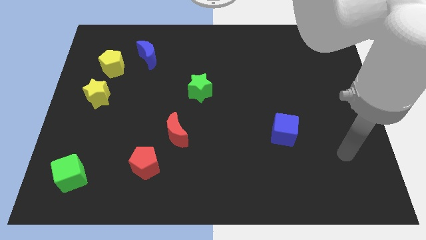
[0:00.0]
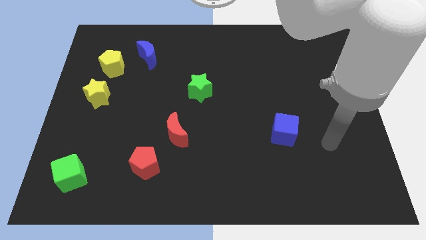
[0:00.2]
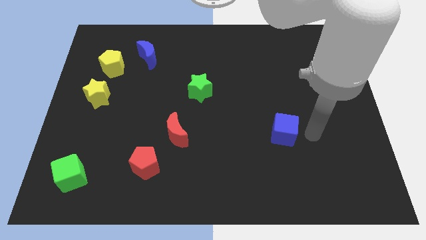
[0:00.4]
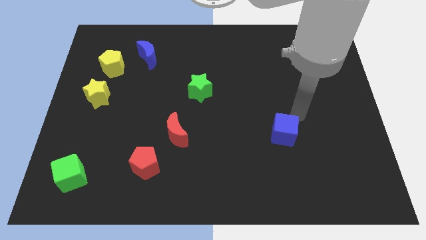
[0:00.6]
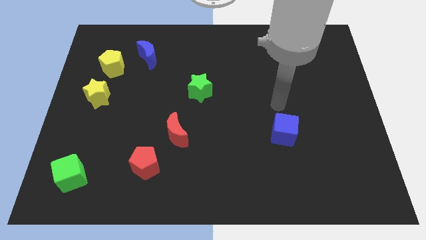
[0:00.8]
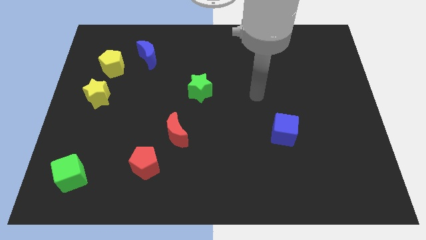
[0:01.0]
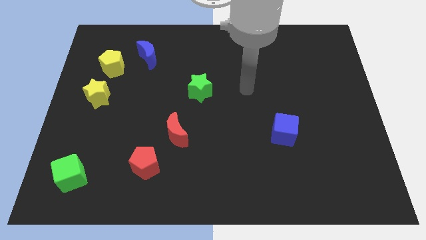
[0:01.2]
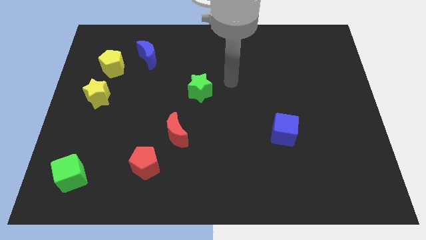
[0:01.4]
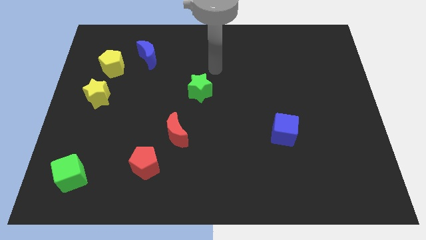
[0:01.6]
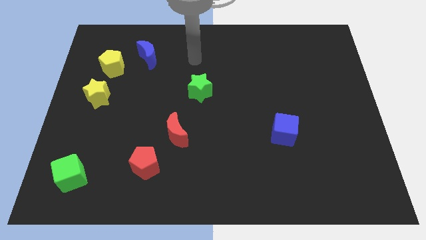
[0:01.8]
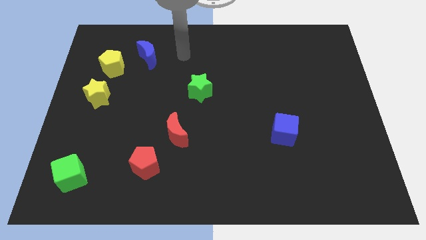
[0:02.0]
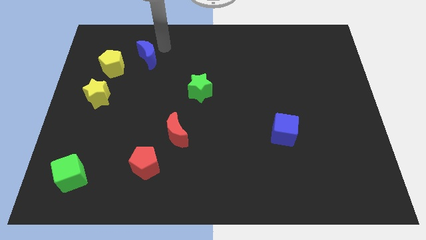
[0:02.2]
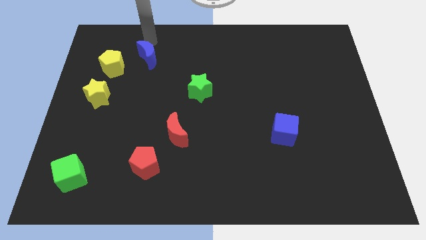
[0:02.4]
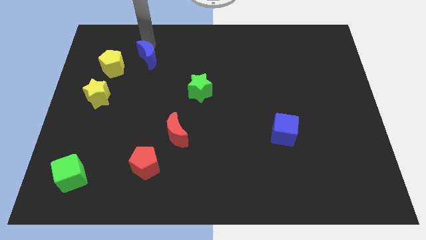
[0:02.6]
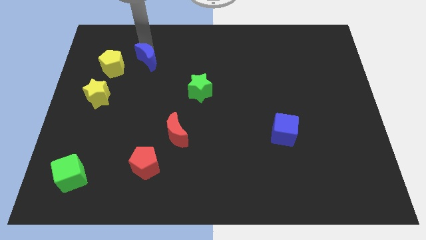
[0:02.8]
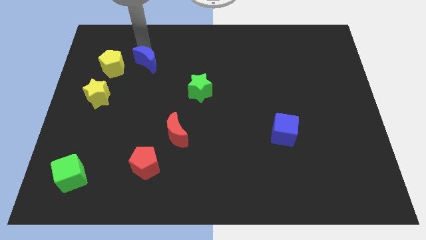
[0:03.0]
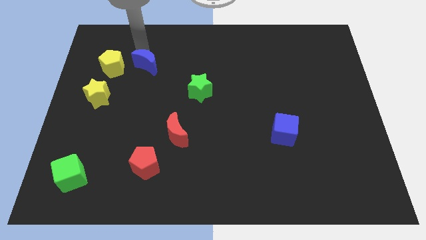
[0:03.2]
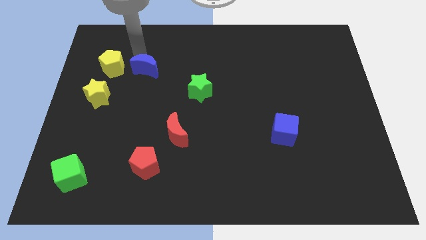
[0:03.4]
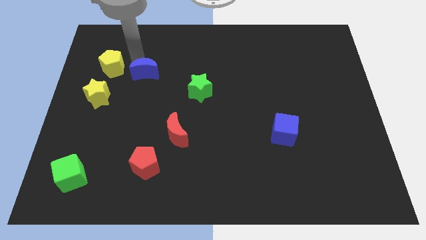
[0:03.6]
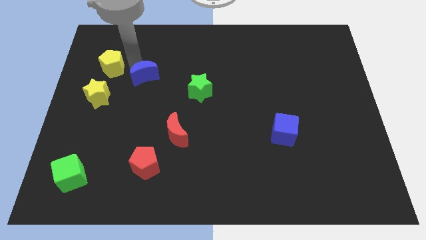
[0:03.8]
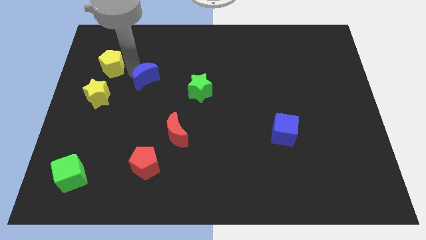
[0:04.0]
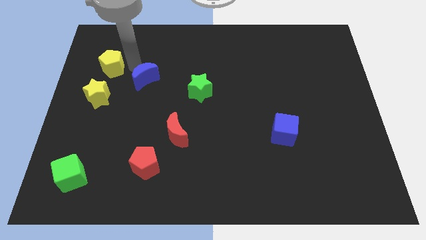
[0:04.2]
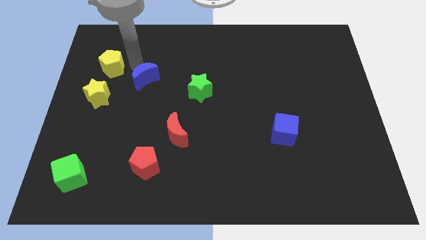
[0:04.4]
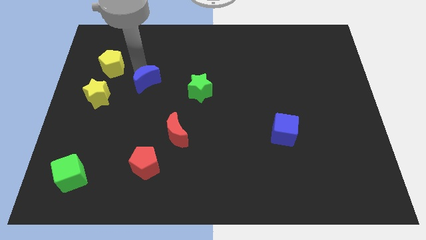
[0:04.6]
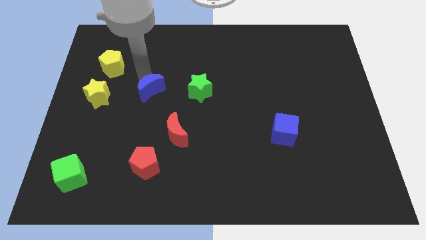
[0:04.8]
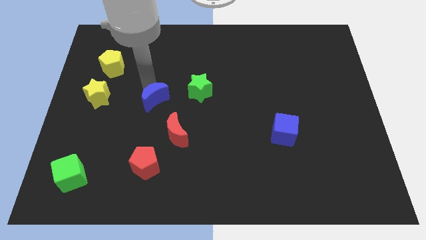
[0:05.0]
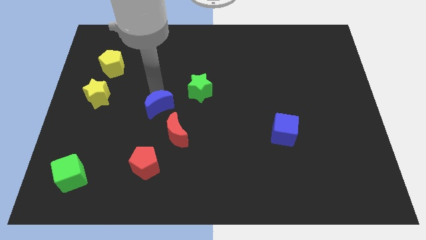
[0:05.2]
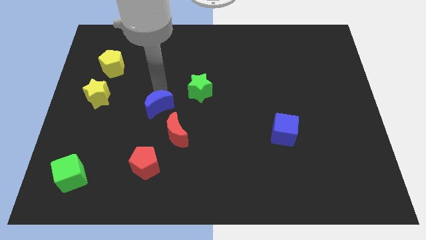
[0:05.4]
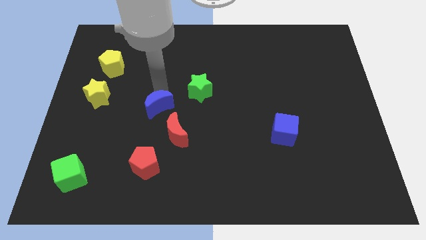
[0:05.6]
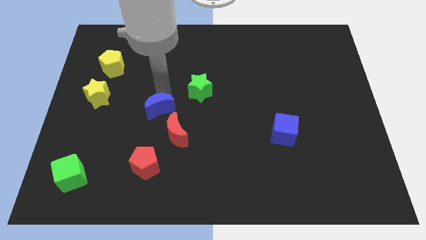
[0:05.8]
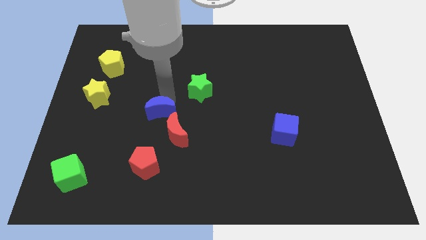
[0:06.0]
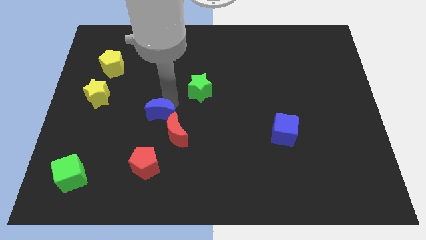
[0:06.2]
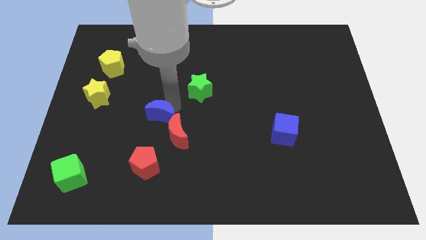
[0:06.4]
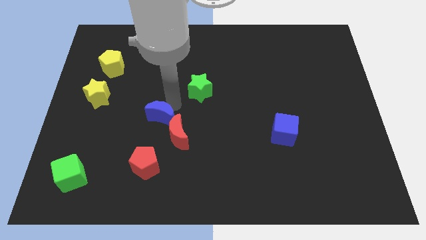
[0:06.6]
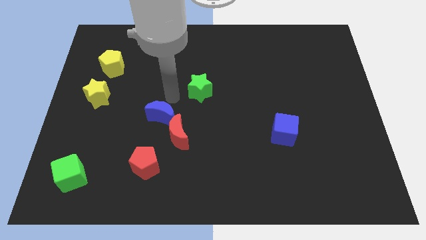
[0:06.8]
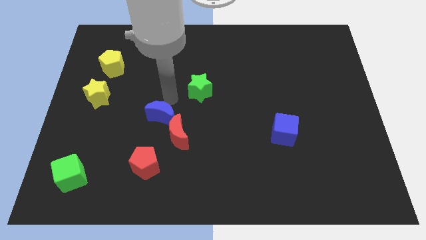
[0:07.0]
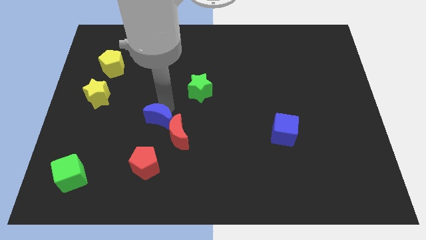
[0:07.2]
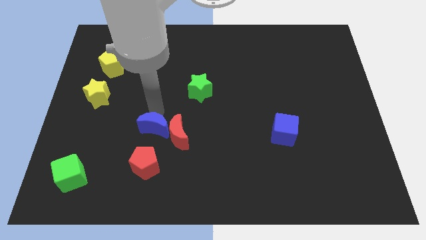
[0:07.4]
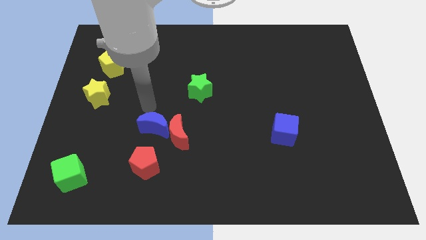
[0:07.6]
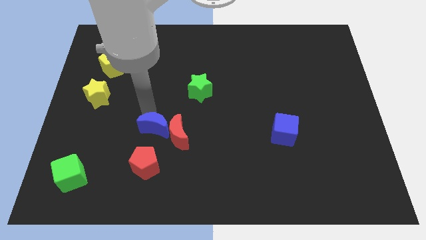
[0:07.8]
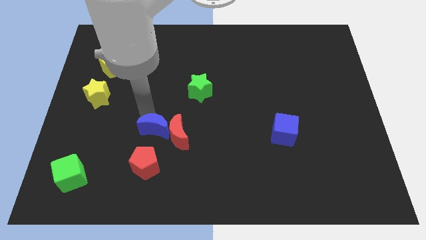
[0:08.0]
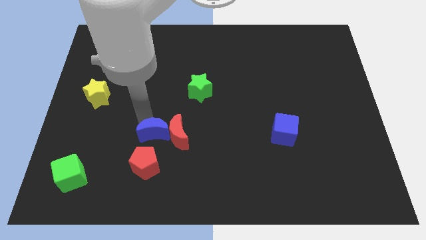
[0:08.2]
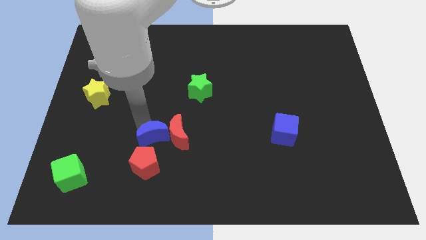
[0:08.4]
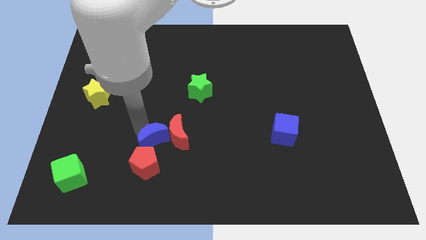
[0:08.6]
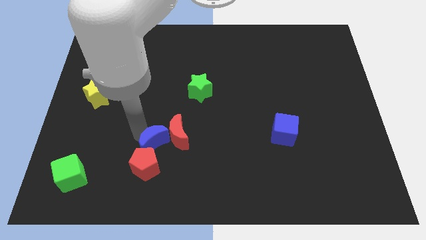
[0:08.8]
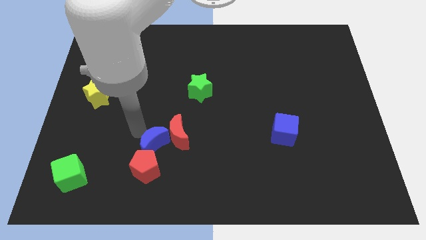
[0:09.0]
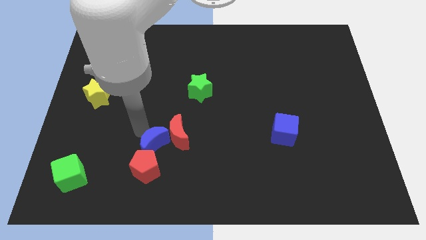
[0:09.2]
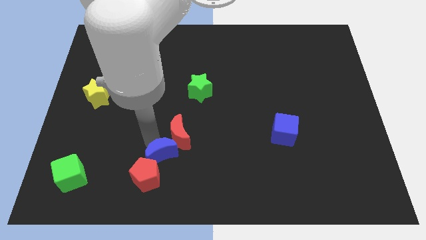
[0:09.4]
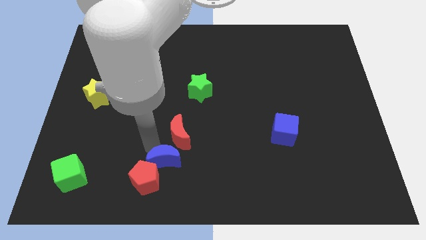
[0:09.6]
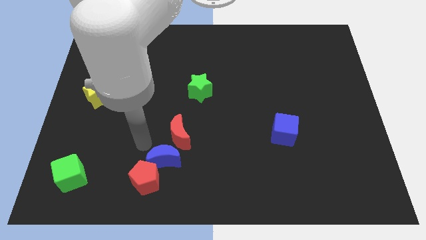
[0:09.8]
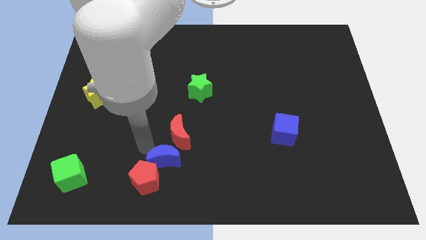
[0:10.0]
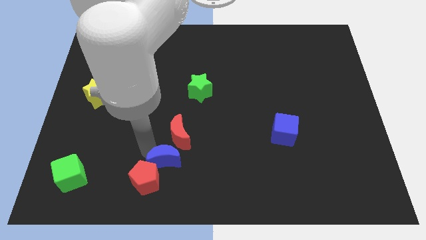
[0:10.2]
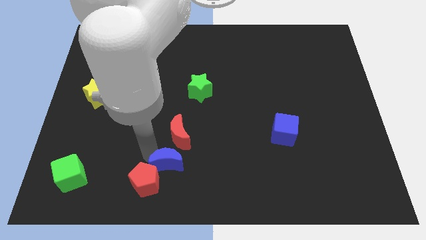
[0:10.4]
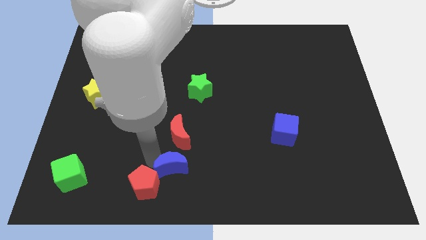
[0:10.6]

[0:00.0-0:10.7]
push the blue moon to the bottom

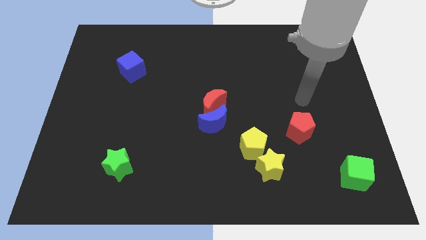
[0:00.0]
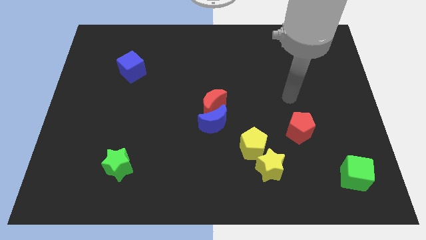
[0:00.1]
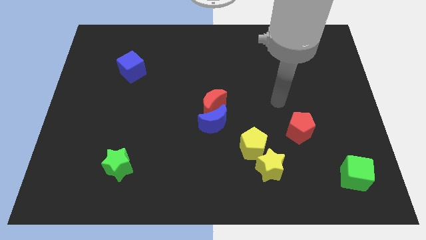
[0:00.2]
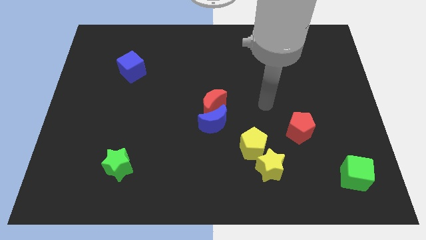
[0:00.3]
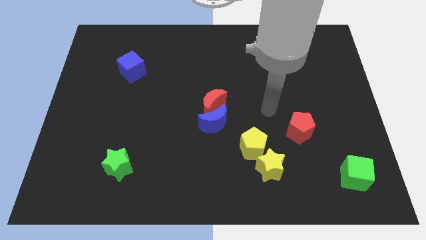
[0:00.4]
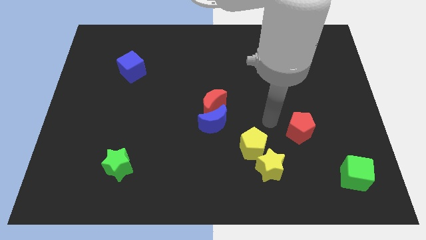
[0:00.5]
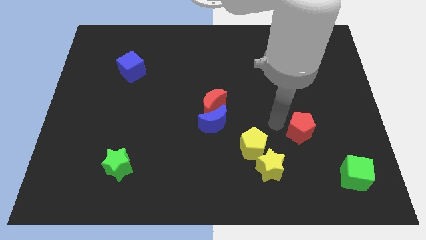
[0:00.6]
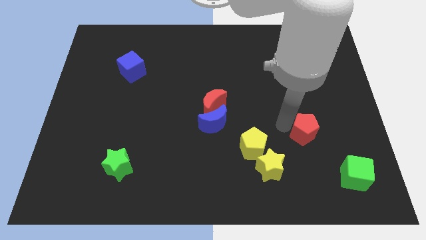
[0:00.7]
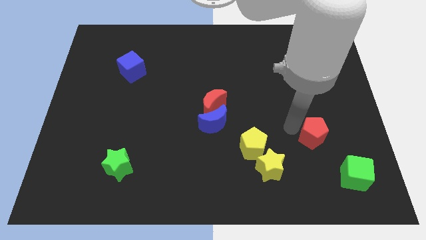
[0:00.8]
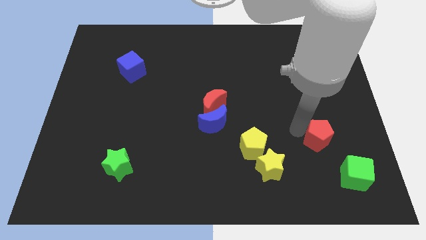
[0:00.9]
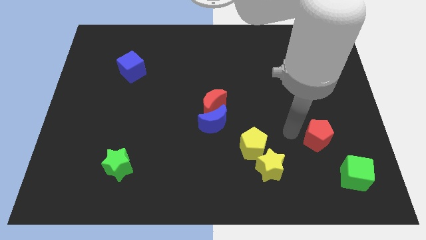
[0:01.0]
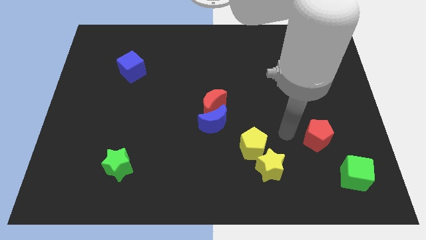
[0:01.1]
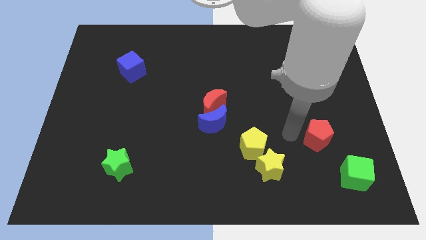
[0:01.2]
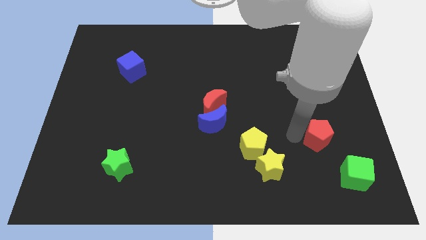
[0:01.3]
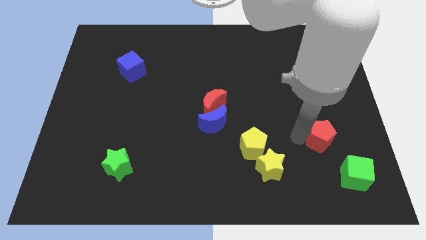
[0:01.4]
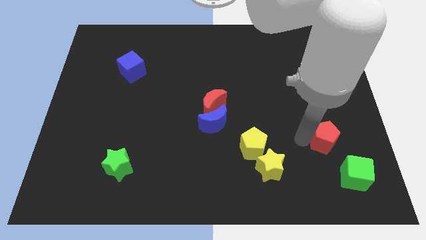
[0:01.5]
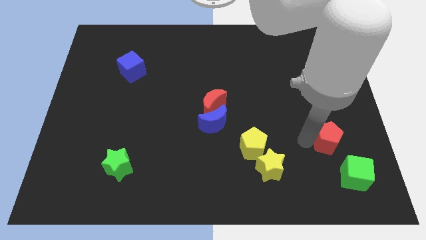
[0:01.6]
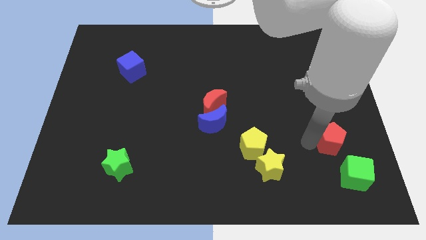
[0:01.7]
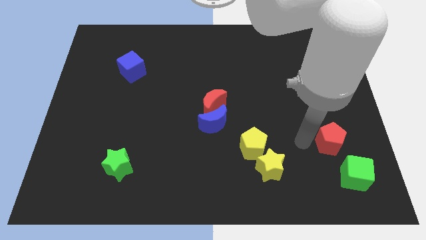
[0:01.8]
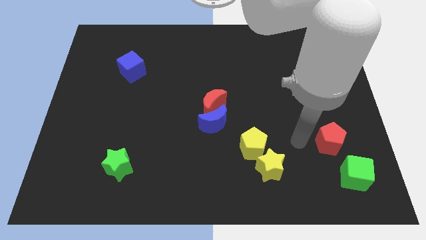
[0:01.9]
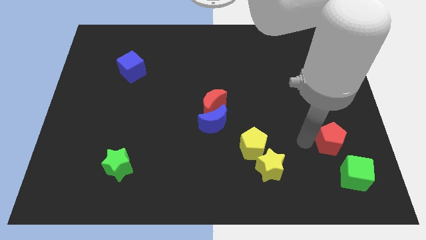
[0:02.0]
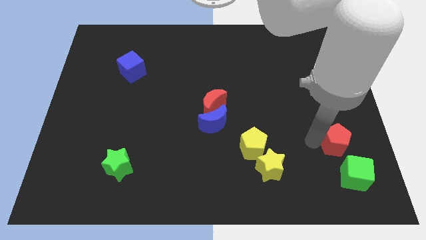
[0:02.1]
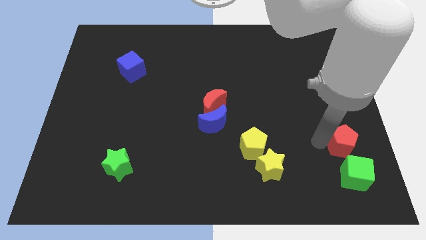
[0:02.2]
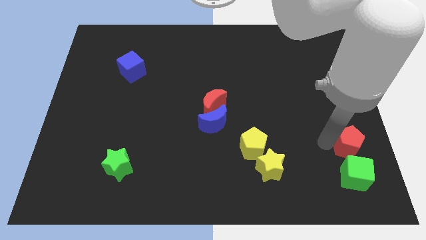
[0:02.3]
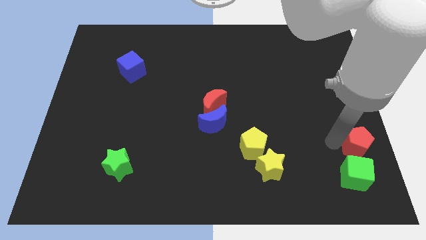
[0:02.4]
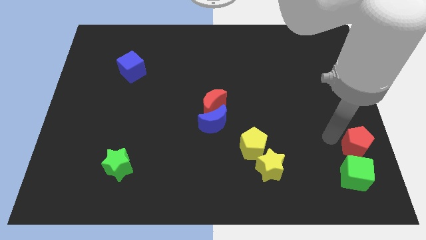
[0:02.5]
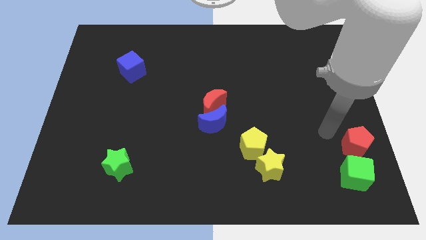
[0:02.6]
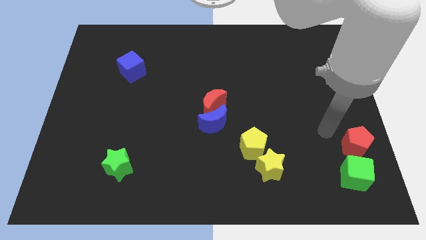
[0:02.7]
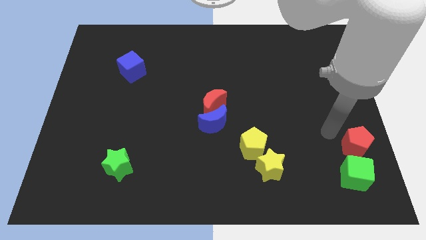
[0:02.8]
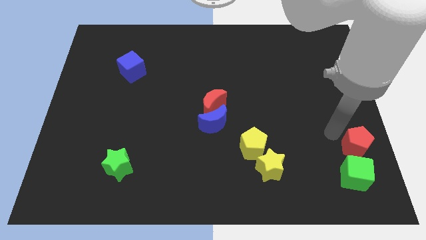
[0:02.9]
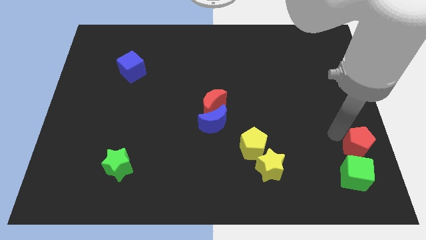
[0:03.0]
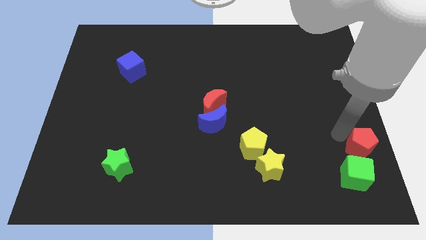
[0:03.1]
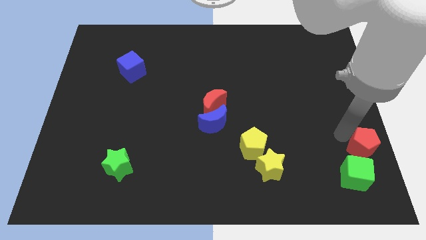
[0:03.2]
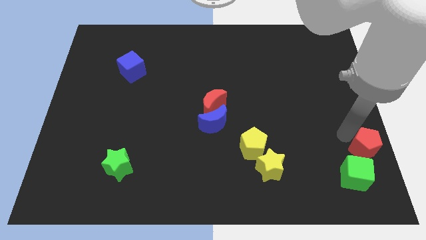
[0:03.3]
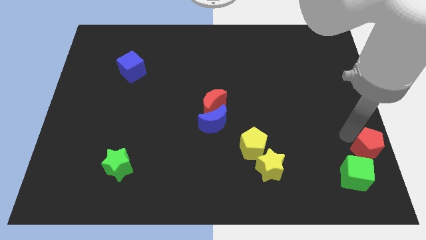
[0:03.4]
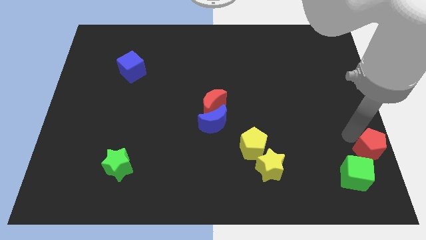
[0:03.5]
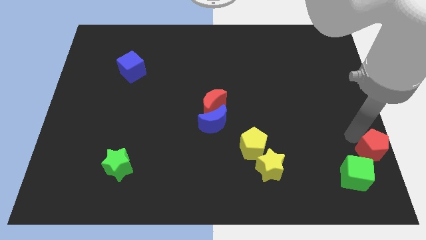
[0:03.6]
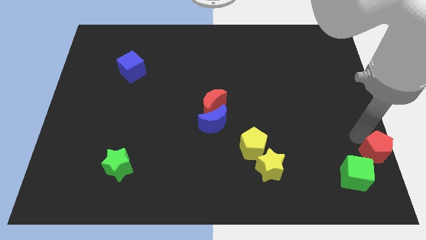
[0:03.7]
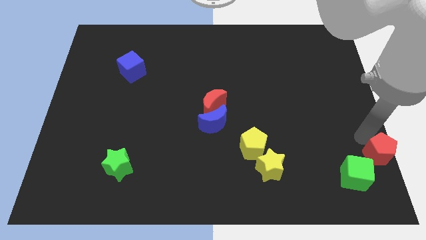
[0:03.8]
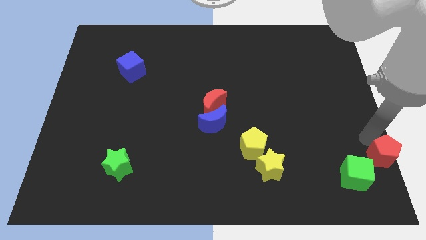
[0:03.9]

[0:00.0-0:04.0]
put the red pentagon to the bottom right of the board
